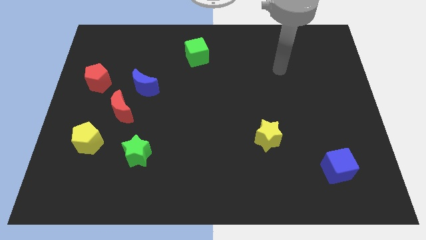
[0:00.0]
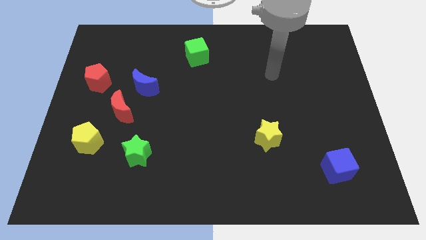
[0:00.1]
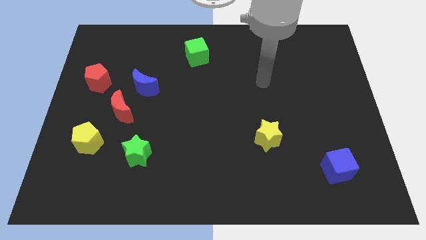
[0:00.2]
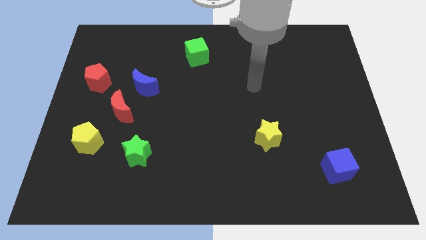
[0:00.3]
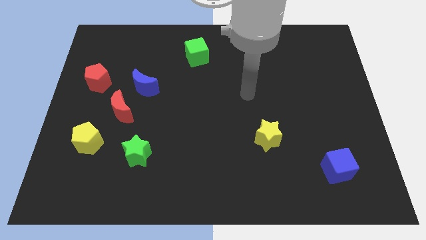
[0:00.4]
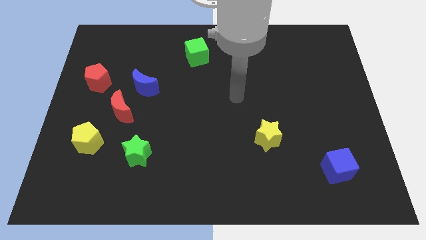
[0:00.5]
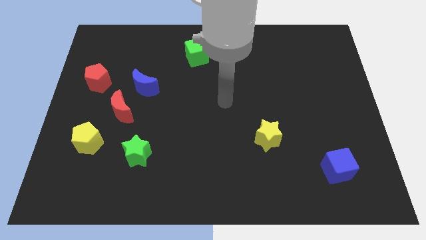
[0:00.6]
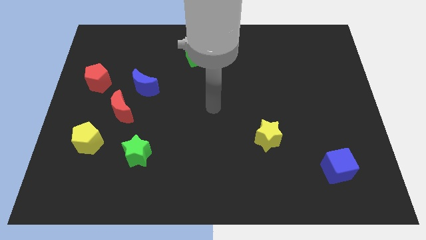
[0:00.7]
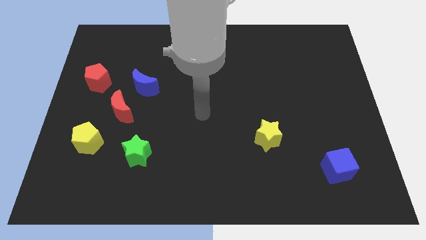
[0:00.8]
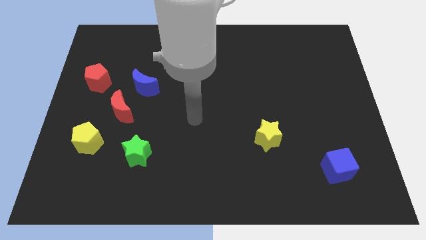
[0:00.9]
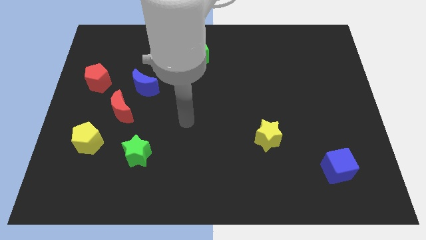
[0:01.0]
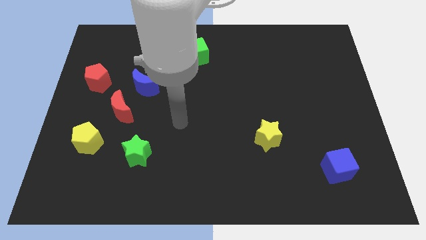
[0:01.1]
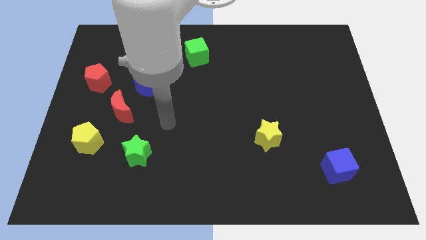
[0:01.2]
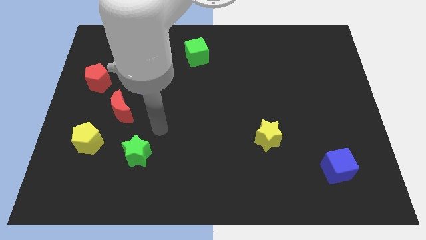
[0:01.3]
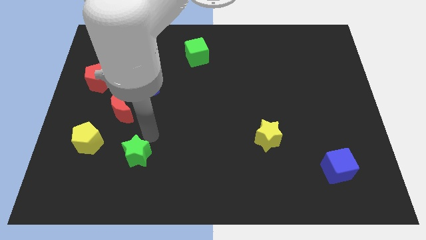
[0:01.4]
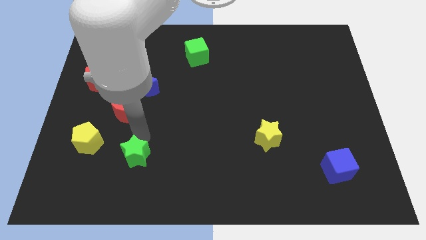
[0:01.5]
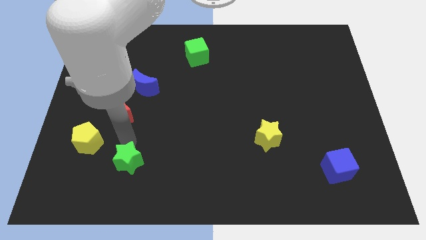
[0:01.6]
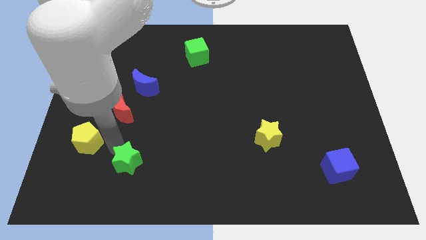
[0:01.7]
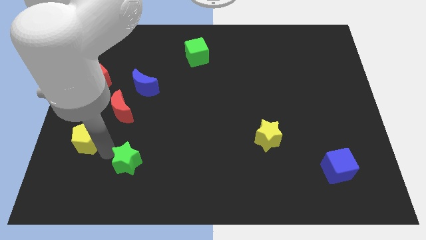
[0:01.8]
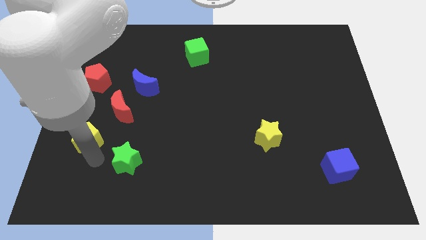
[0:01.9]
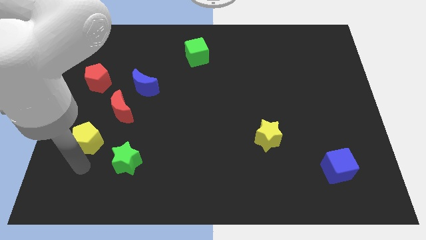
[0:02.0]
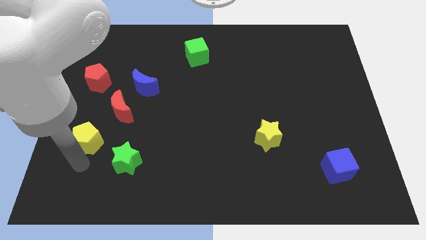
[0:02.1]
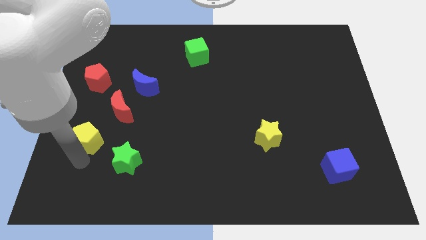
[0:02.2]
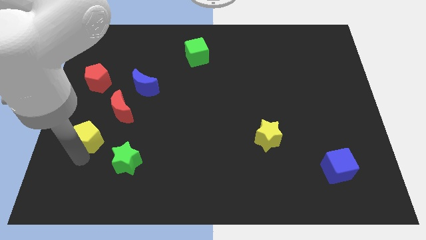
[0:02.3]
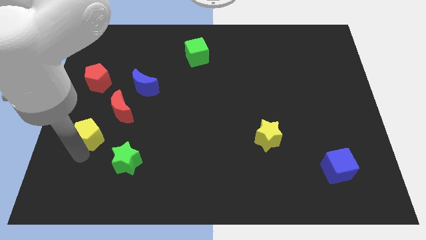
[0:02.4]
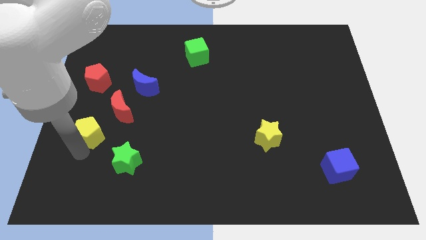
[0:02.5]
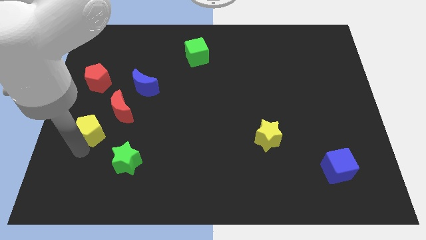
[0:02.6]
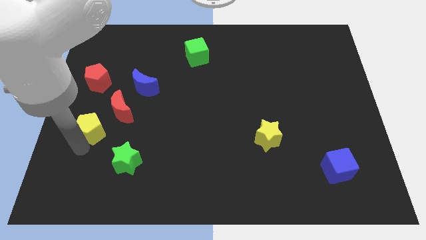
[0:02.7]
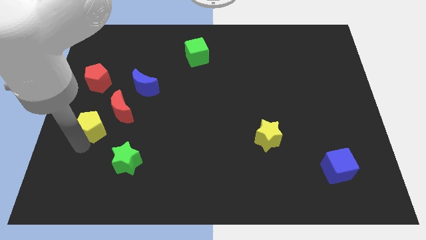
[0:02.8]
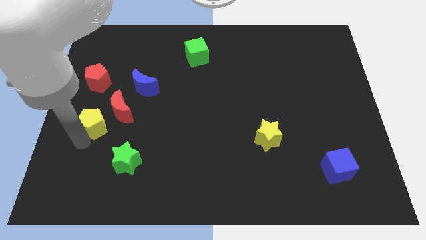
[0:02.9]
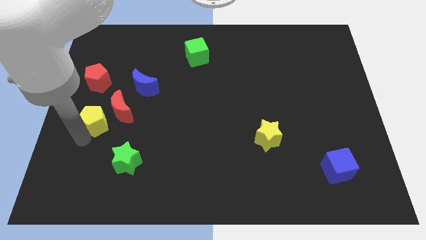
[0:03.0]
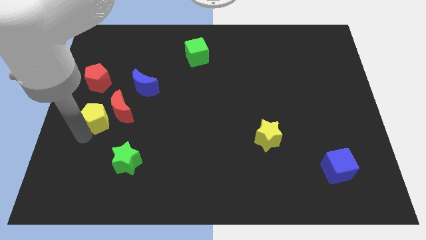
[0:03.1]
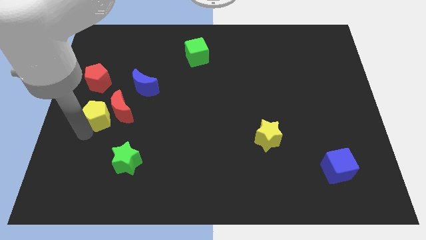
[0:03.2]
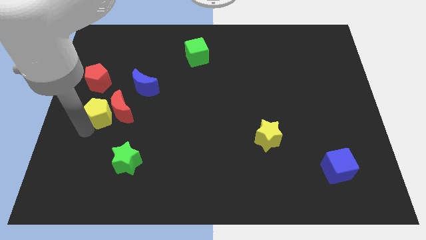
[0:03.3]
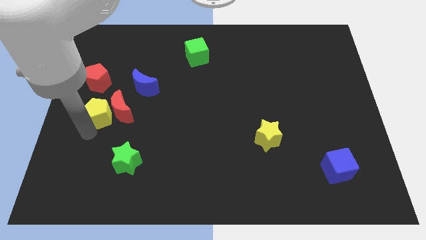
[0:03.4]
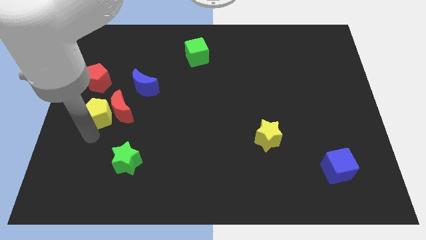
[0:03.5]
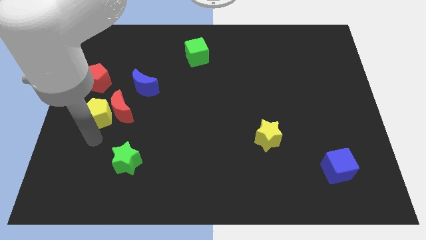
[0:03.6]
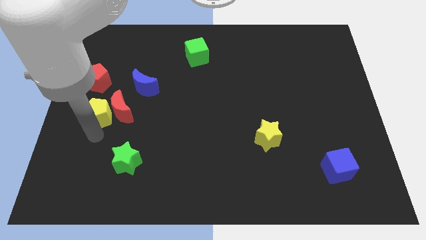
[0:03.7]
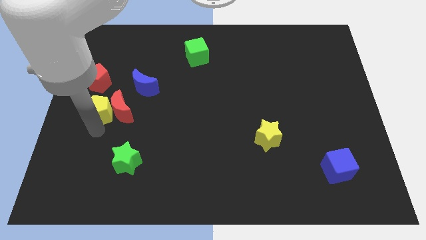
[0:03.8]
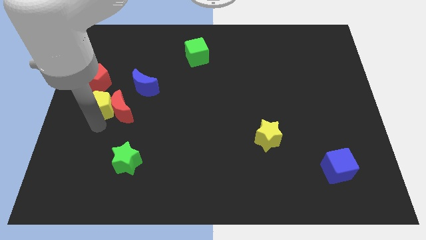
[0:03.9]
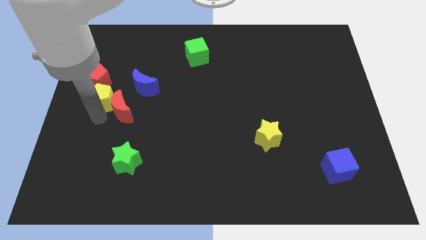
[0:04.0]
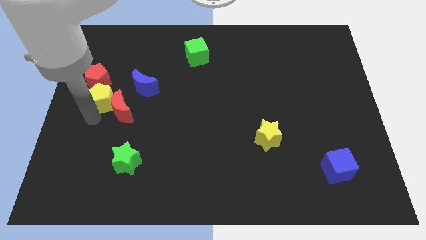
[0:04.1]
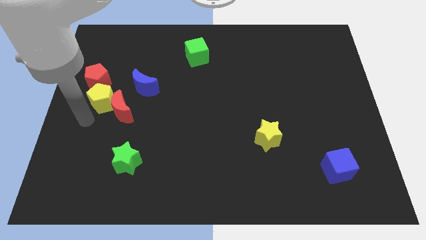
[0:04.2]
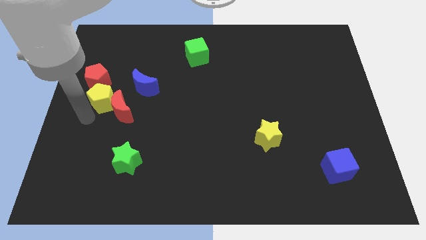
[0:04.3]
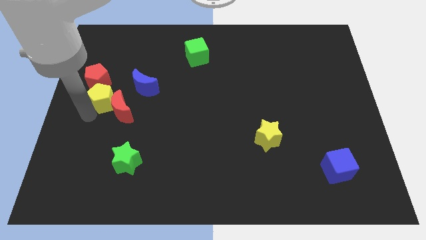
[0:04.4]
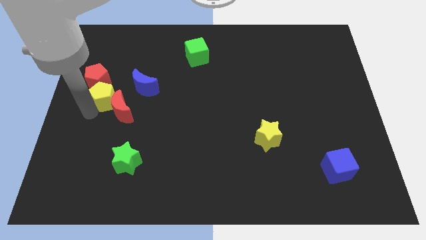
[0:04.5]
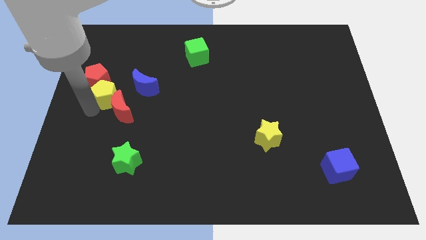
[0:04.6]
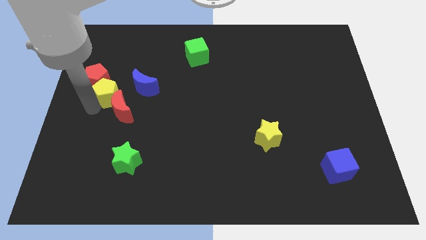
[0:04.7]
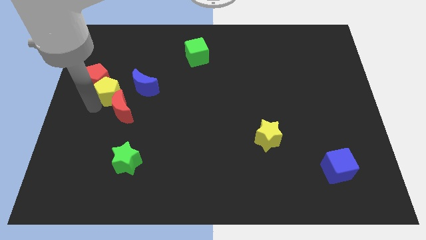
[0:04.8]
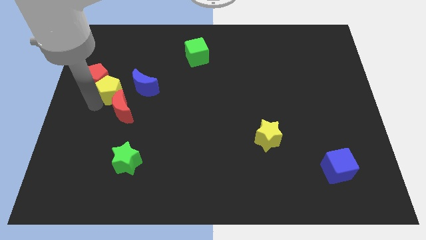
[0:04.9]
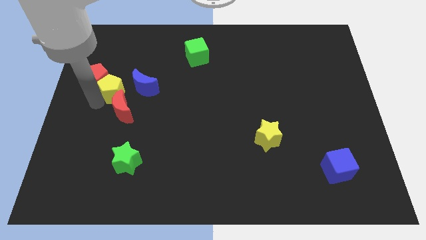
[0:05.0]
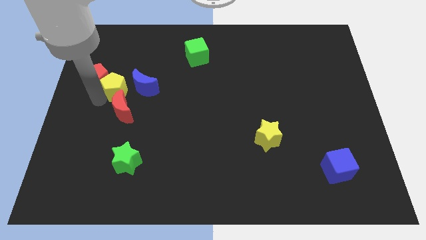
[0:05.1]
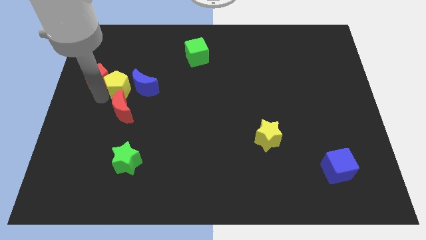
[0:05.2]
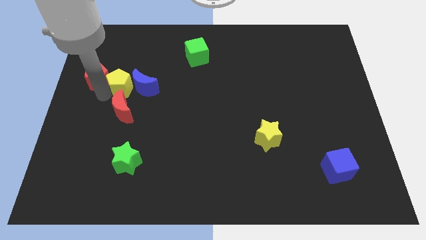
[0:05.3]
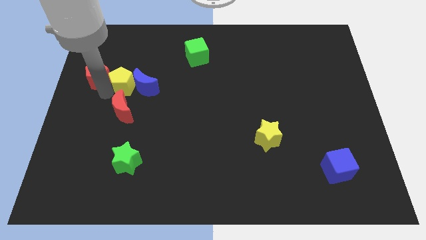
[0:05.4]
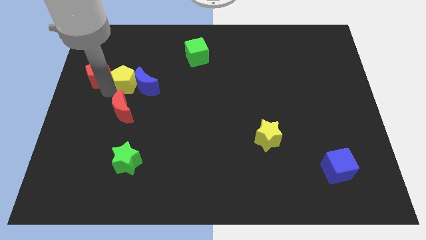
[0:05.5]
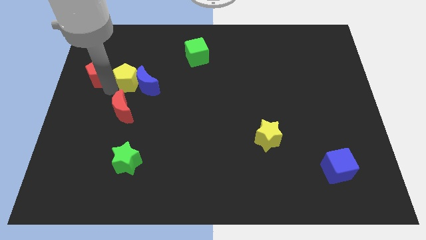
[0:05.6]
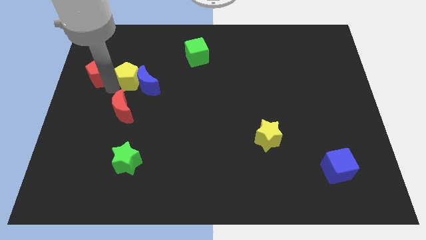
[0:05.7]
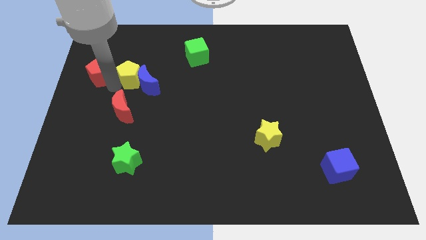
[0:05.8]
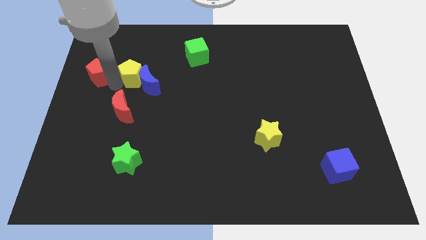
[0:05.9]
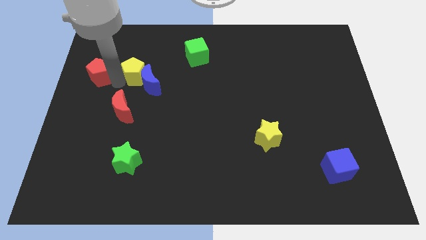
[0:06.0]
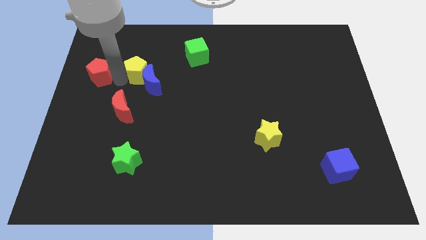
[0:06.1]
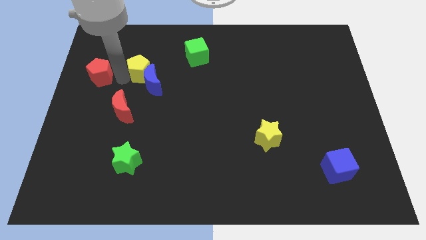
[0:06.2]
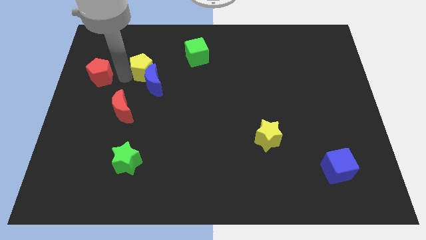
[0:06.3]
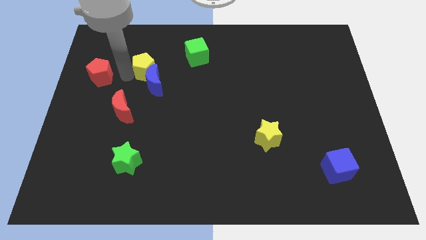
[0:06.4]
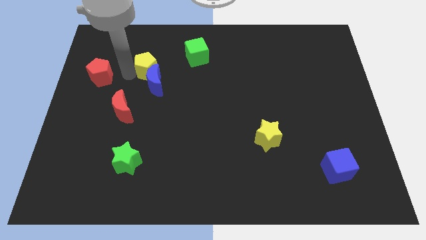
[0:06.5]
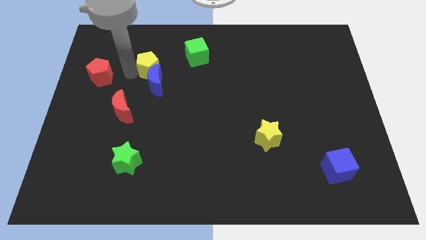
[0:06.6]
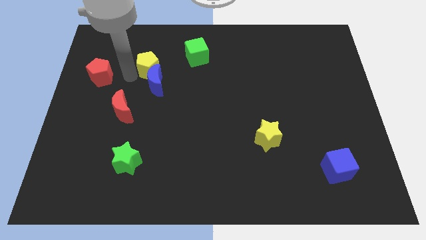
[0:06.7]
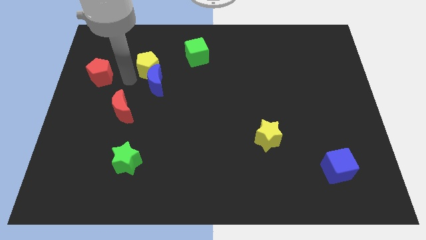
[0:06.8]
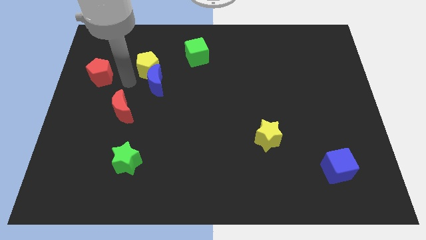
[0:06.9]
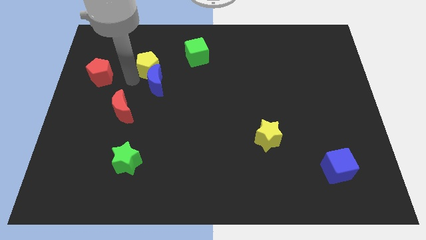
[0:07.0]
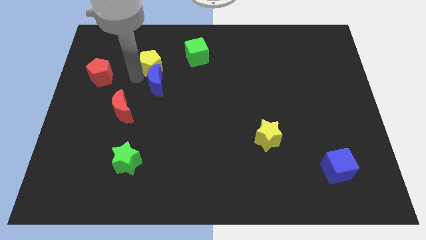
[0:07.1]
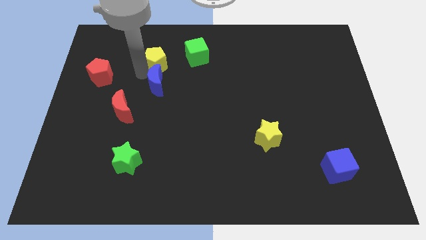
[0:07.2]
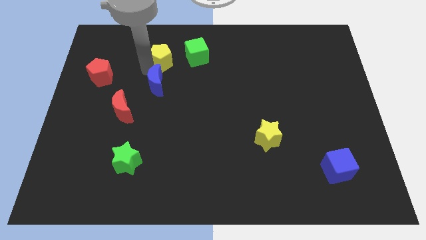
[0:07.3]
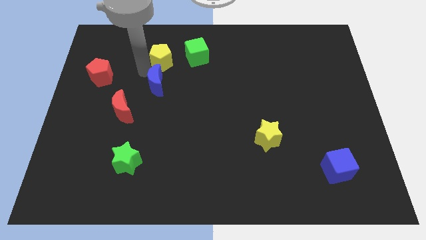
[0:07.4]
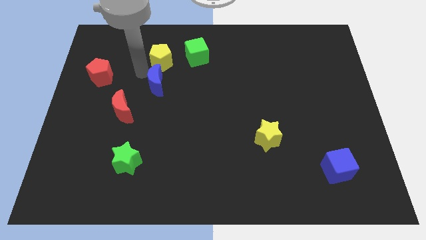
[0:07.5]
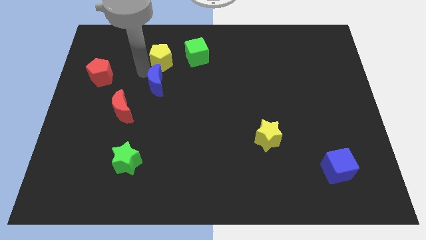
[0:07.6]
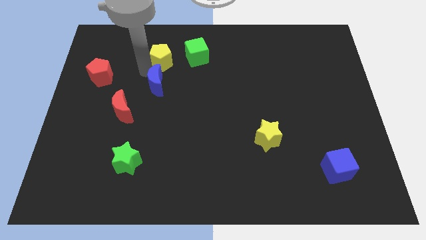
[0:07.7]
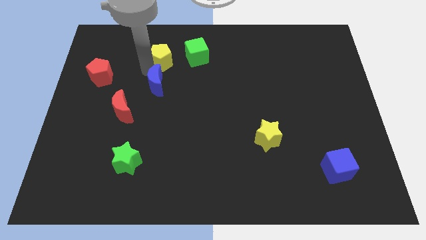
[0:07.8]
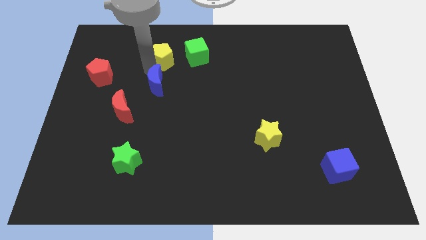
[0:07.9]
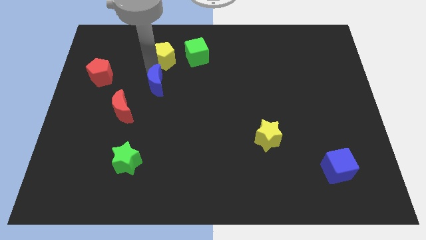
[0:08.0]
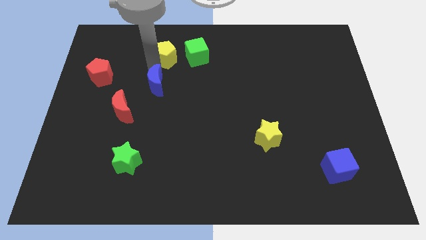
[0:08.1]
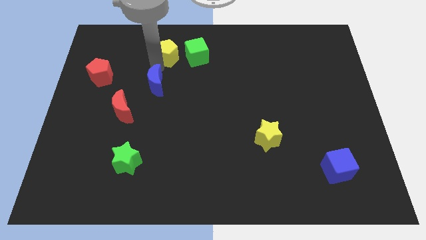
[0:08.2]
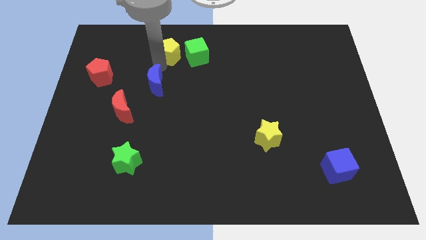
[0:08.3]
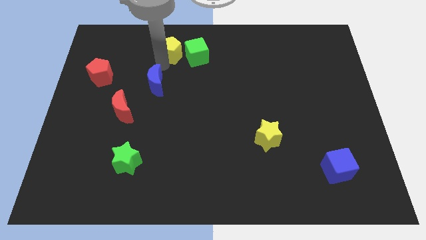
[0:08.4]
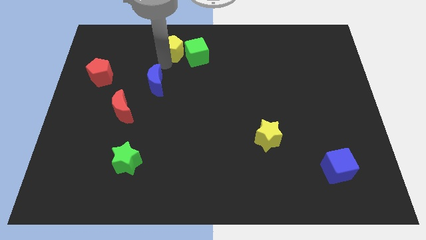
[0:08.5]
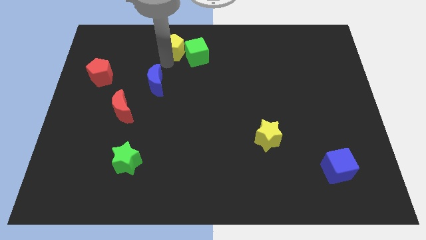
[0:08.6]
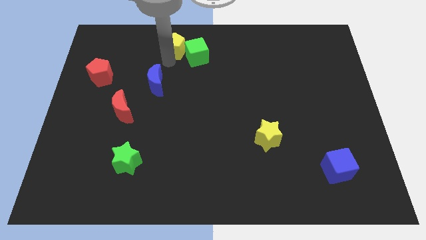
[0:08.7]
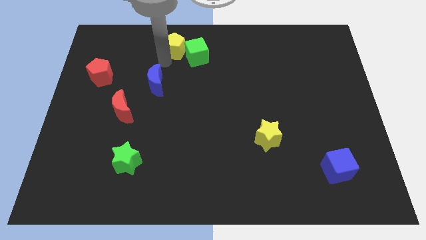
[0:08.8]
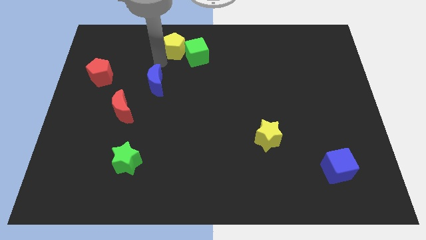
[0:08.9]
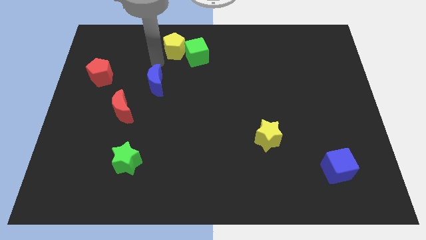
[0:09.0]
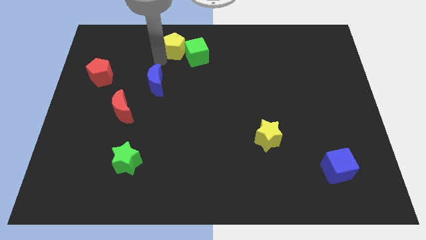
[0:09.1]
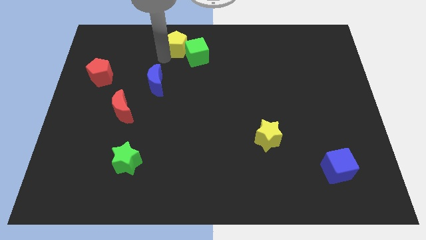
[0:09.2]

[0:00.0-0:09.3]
move the yellow pentagon to the top side
